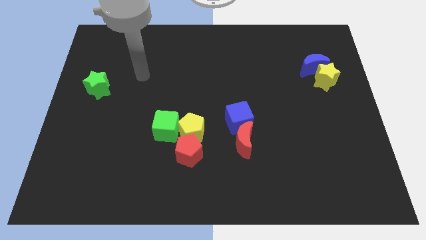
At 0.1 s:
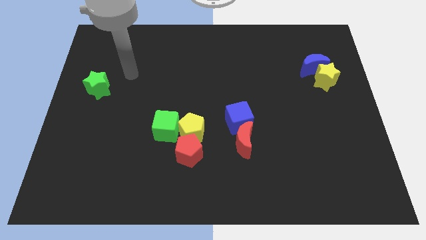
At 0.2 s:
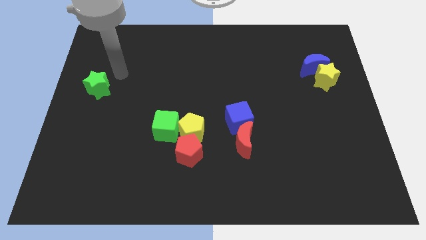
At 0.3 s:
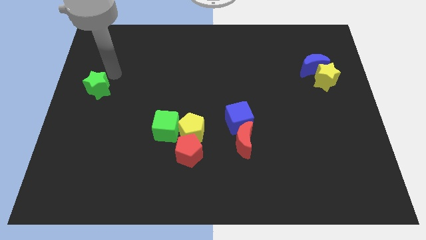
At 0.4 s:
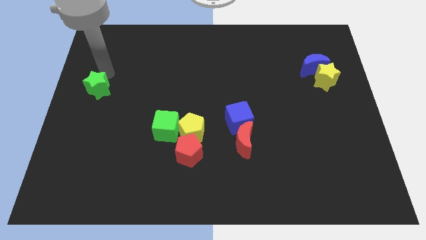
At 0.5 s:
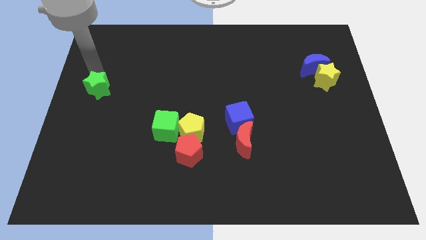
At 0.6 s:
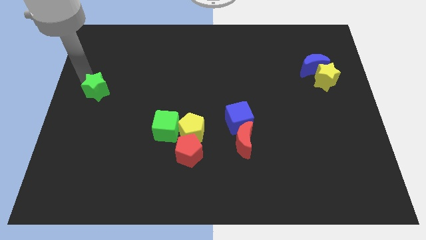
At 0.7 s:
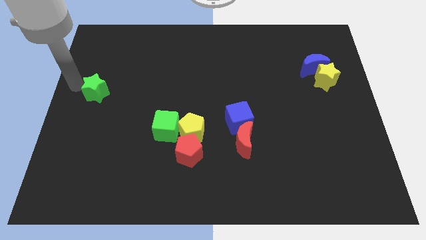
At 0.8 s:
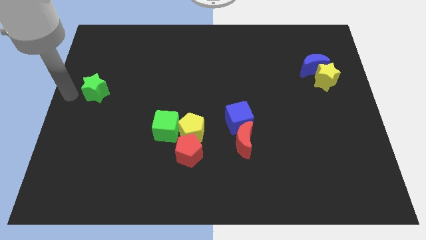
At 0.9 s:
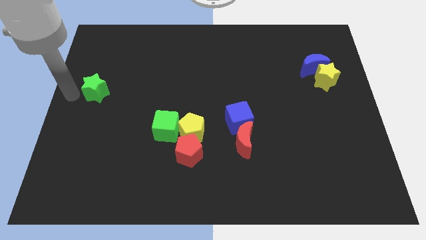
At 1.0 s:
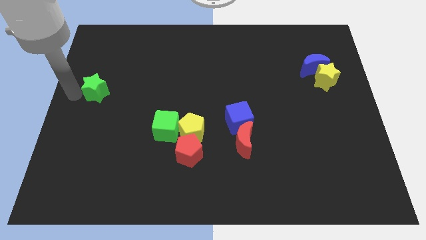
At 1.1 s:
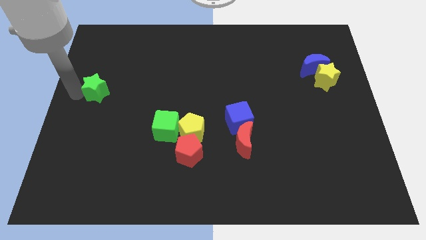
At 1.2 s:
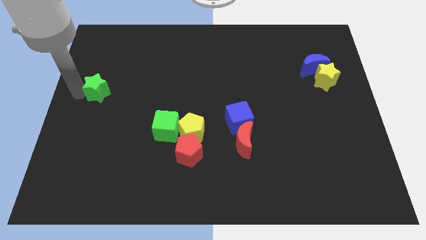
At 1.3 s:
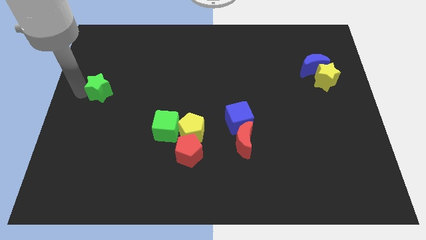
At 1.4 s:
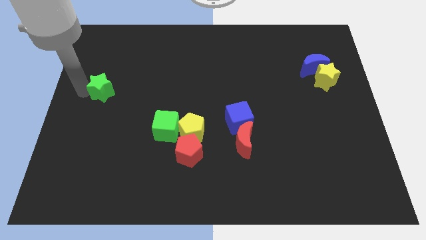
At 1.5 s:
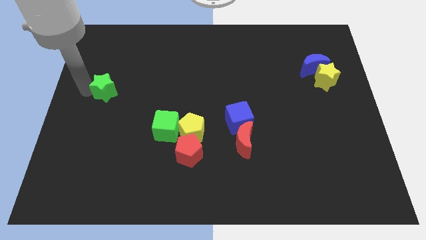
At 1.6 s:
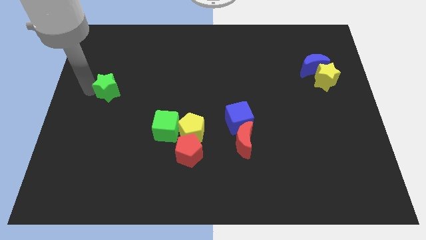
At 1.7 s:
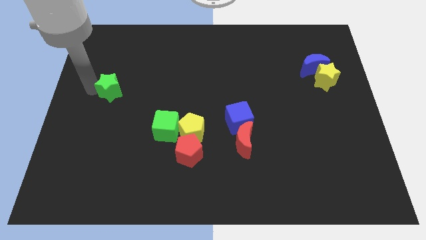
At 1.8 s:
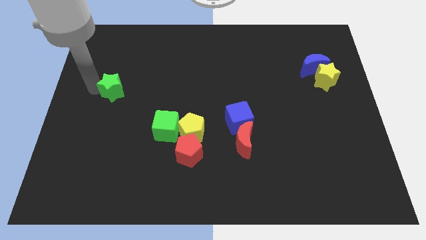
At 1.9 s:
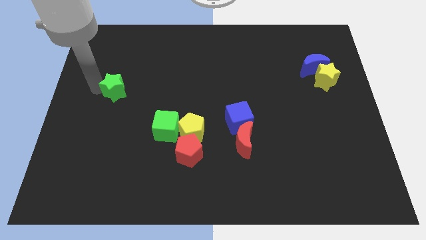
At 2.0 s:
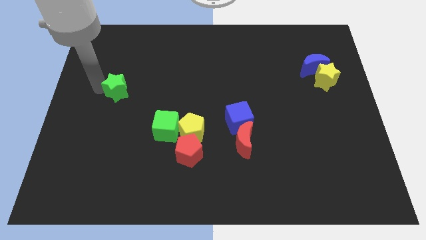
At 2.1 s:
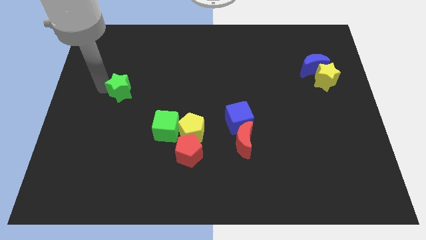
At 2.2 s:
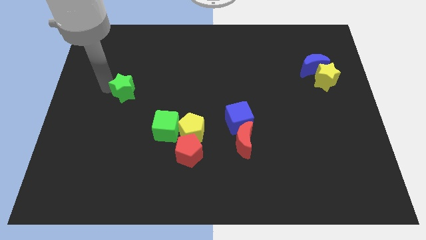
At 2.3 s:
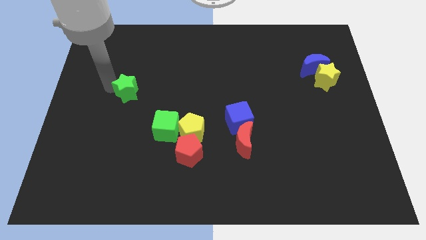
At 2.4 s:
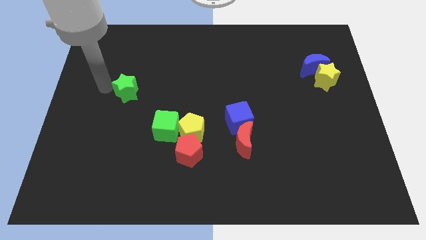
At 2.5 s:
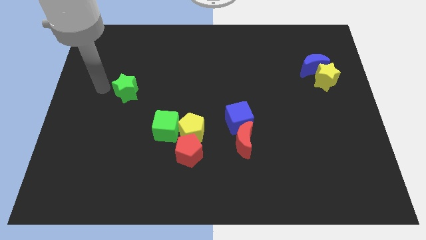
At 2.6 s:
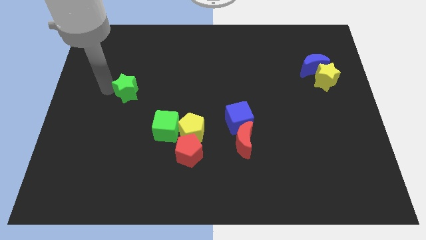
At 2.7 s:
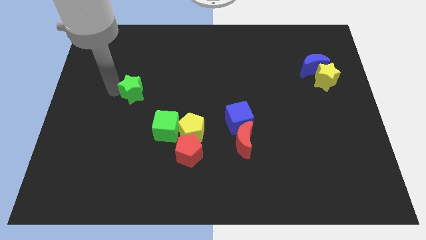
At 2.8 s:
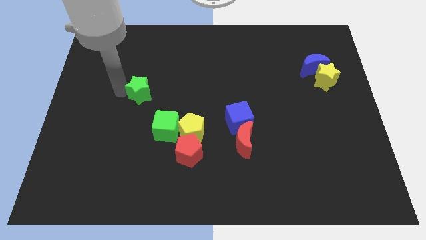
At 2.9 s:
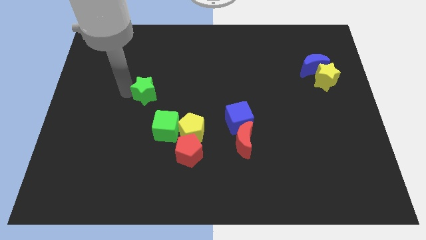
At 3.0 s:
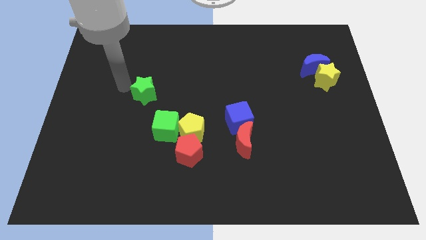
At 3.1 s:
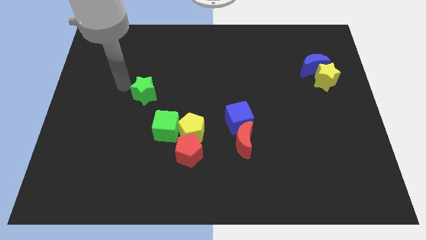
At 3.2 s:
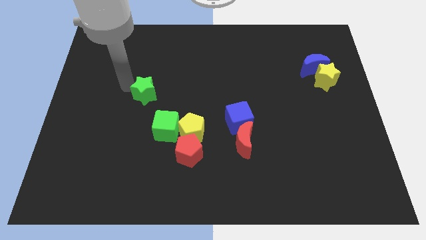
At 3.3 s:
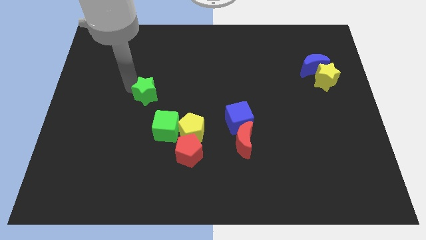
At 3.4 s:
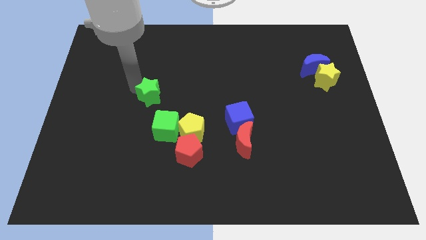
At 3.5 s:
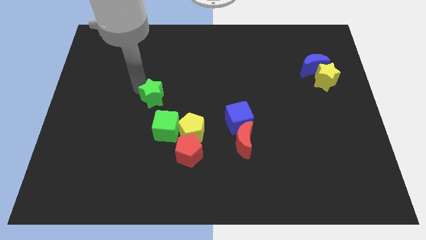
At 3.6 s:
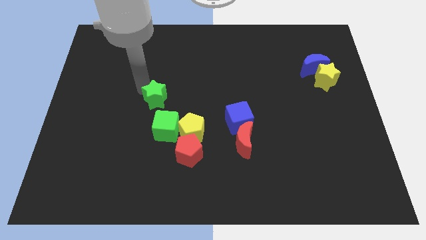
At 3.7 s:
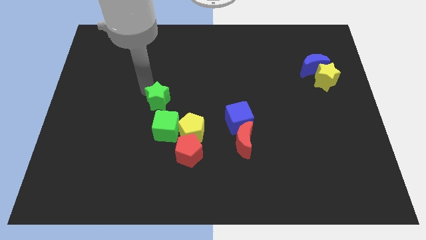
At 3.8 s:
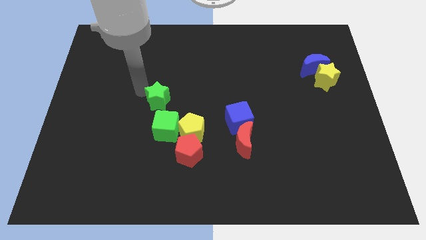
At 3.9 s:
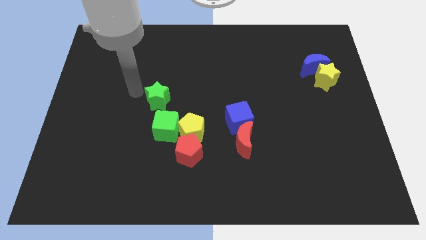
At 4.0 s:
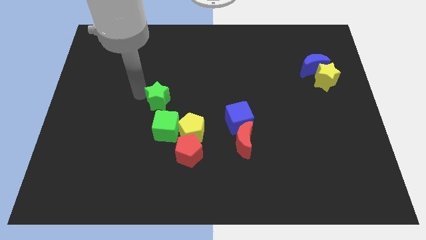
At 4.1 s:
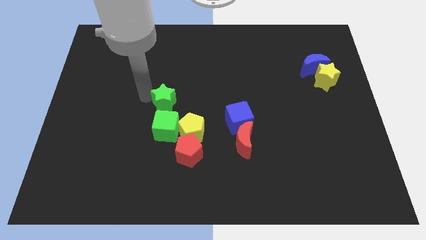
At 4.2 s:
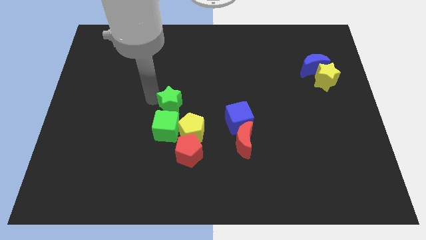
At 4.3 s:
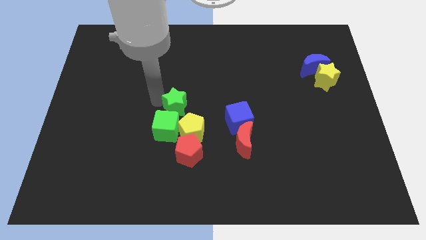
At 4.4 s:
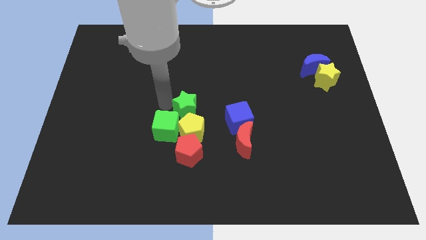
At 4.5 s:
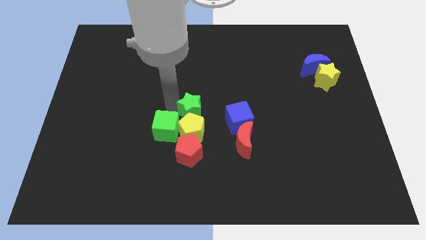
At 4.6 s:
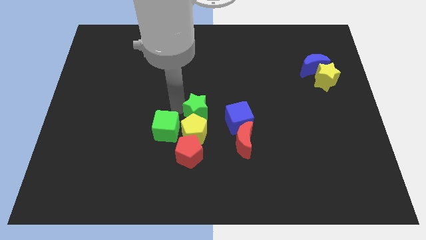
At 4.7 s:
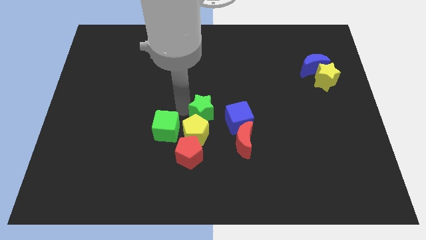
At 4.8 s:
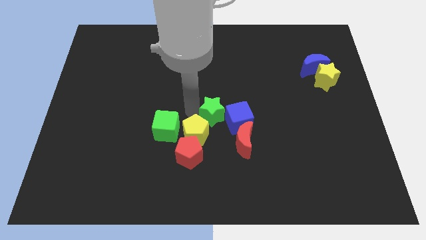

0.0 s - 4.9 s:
move the green star to the blue cube

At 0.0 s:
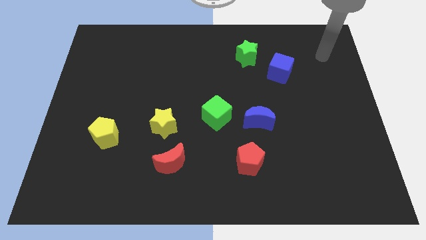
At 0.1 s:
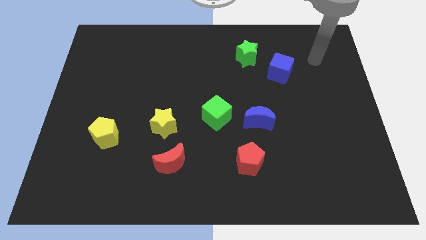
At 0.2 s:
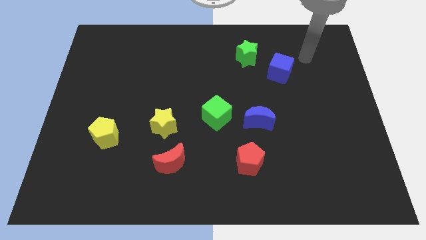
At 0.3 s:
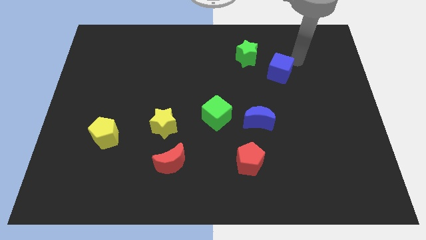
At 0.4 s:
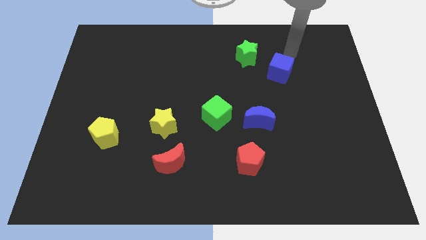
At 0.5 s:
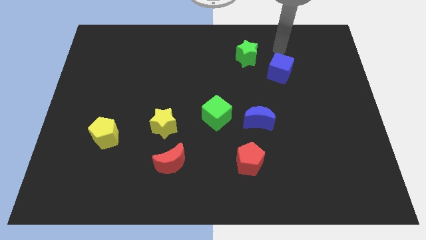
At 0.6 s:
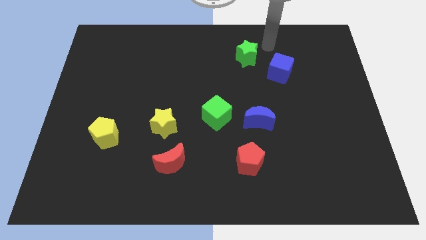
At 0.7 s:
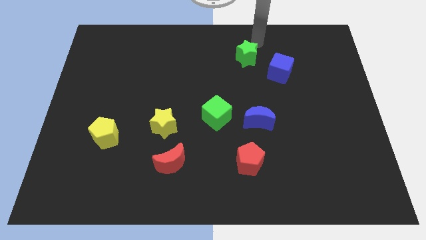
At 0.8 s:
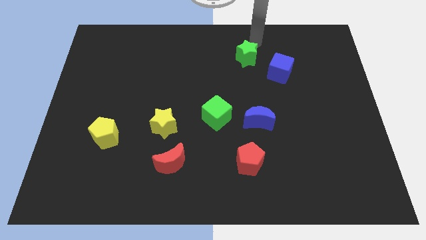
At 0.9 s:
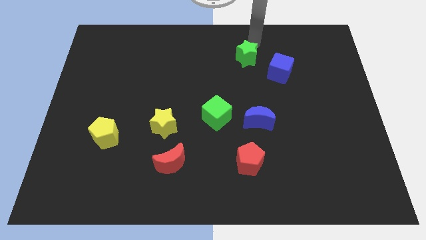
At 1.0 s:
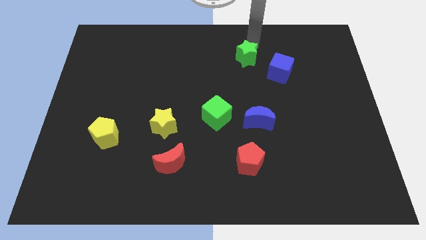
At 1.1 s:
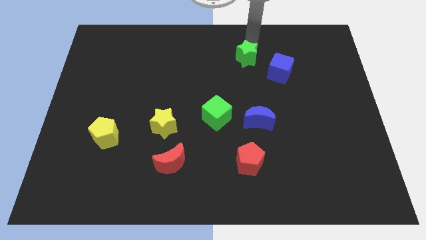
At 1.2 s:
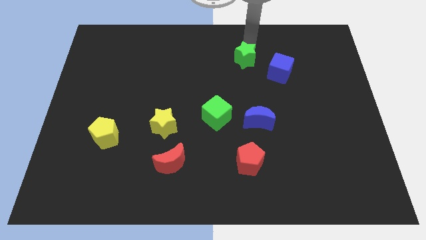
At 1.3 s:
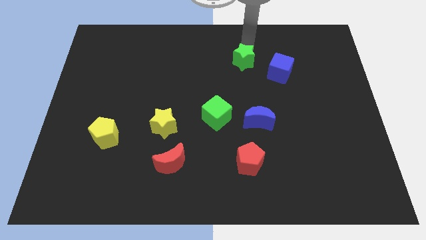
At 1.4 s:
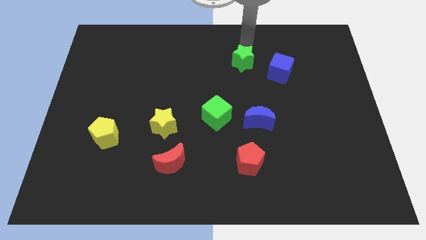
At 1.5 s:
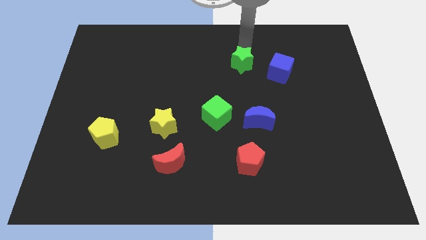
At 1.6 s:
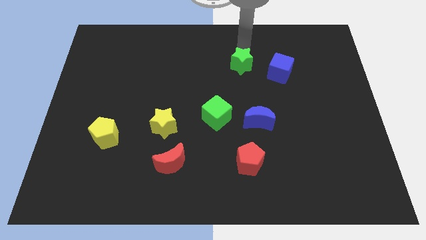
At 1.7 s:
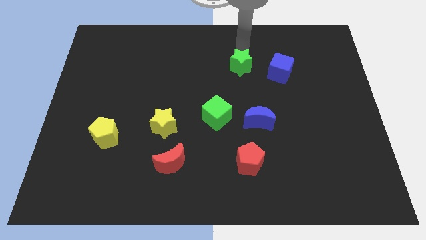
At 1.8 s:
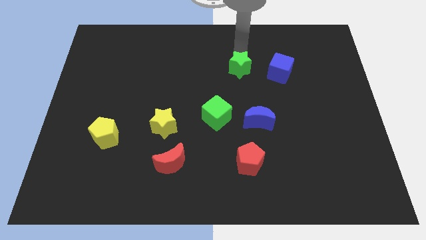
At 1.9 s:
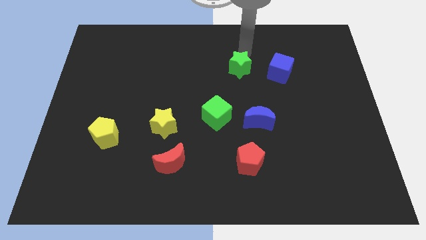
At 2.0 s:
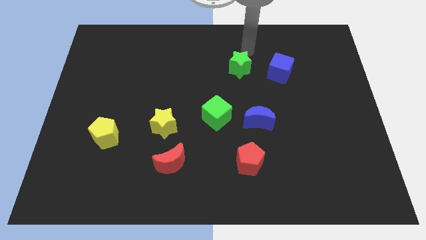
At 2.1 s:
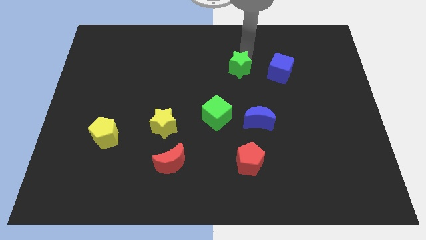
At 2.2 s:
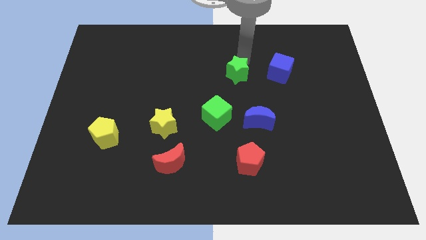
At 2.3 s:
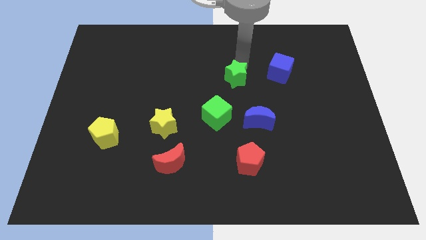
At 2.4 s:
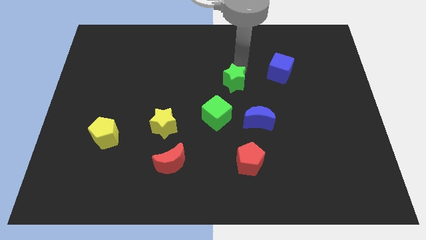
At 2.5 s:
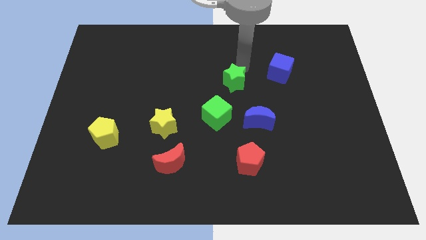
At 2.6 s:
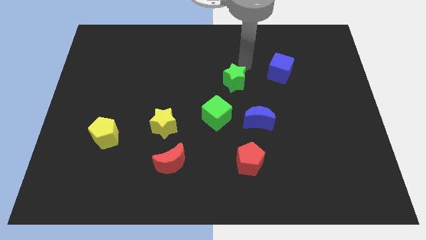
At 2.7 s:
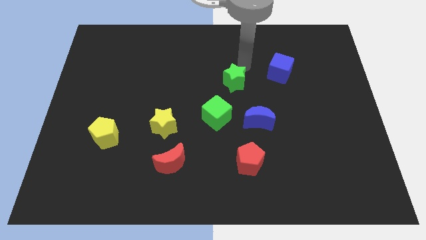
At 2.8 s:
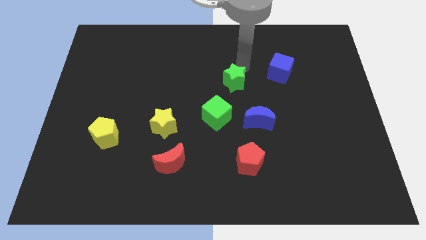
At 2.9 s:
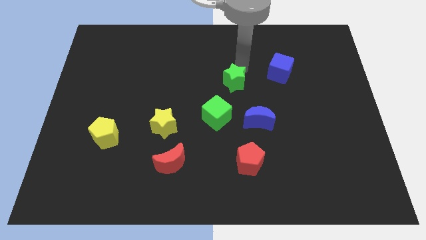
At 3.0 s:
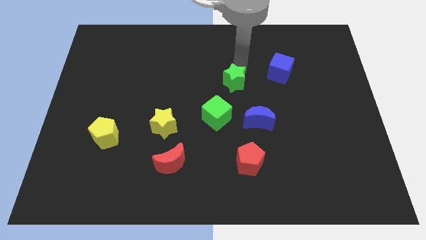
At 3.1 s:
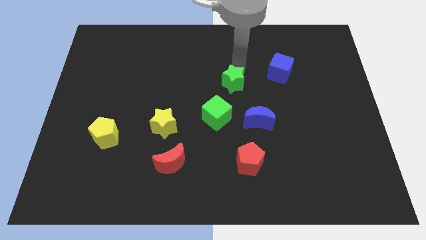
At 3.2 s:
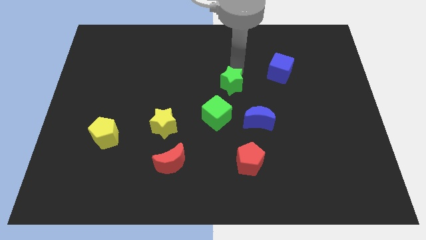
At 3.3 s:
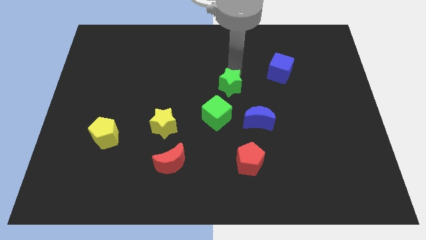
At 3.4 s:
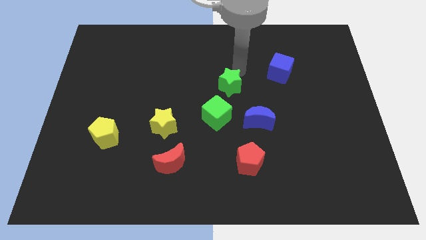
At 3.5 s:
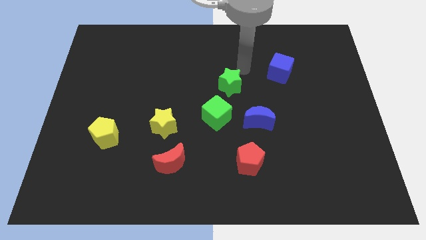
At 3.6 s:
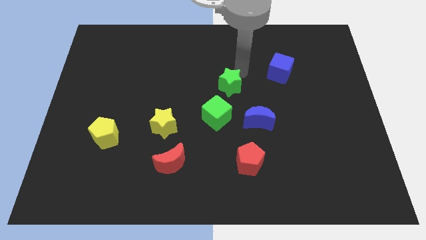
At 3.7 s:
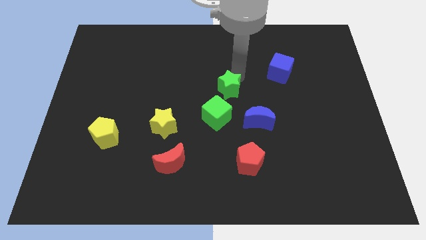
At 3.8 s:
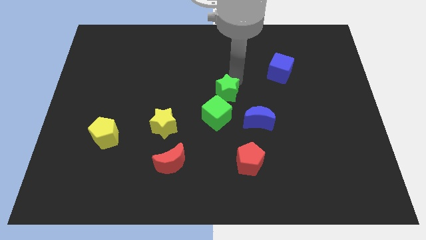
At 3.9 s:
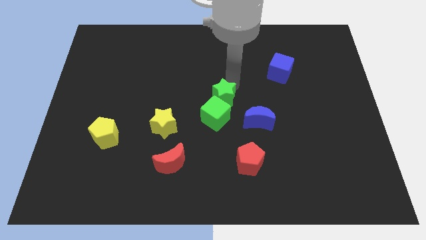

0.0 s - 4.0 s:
put the green star close to the green cube
